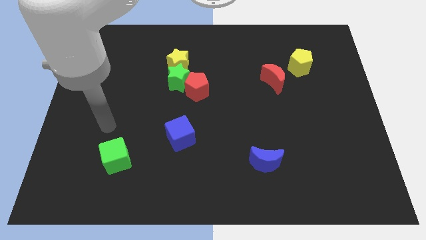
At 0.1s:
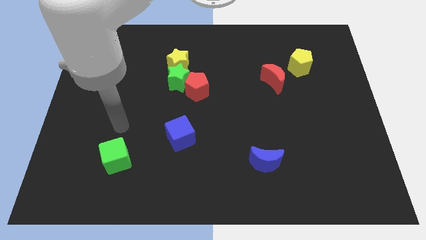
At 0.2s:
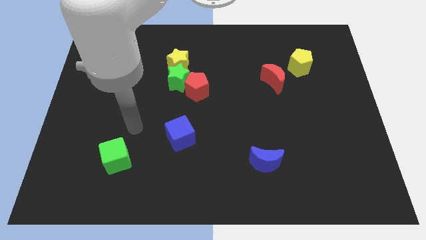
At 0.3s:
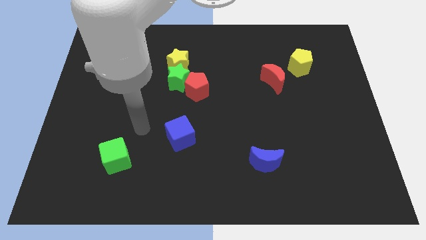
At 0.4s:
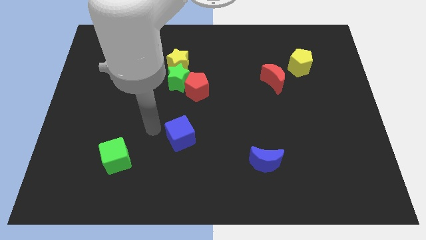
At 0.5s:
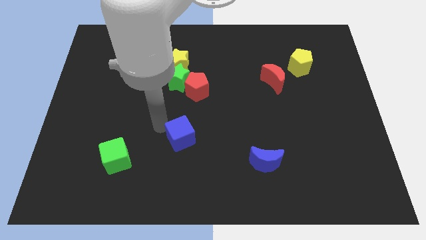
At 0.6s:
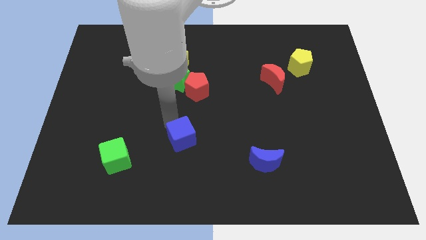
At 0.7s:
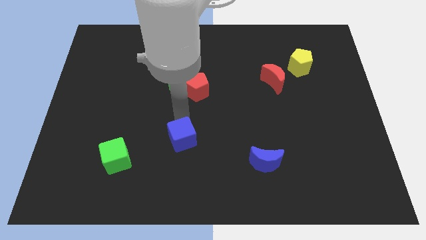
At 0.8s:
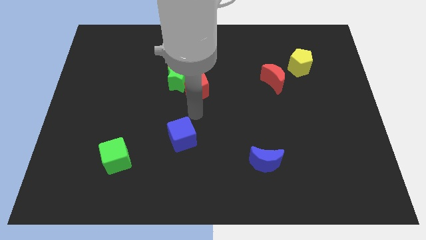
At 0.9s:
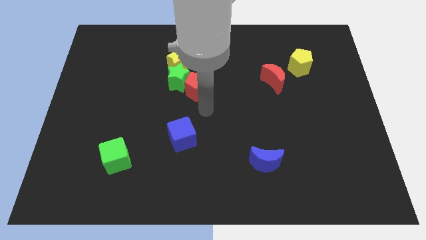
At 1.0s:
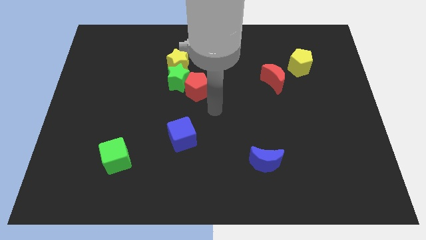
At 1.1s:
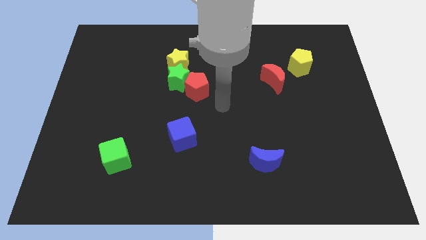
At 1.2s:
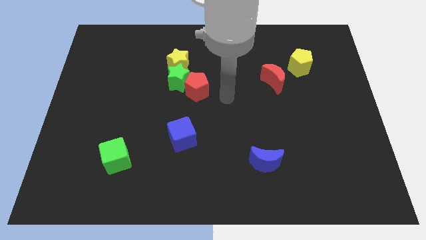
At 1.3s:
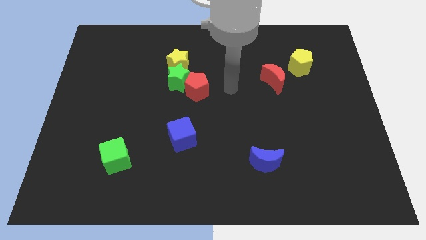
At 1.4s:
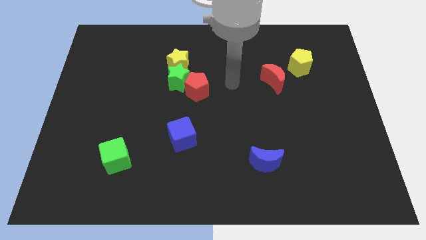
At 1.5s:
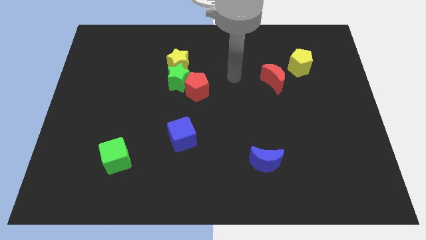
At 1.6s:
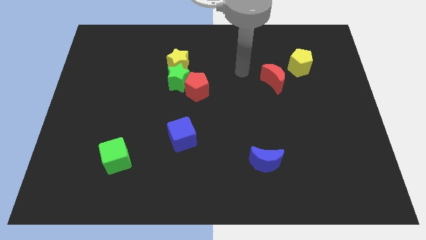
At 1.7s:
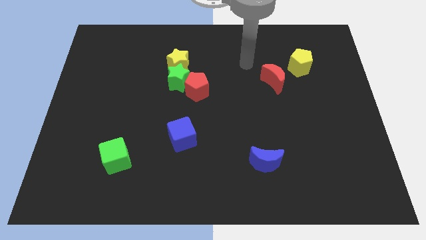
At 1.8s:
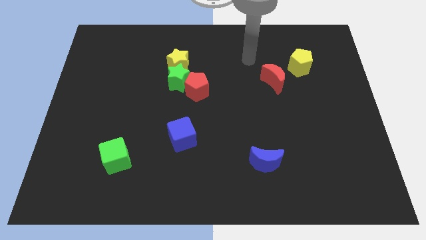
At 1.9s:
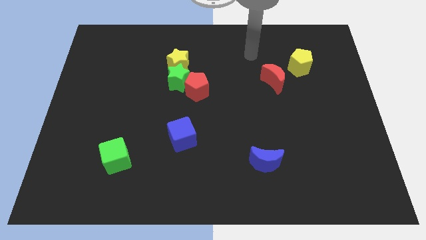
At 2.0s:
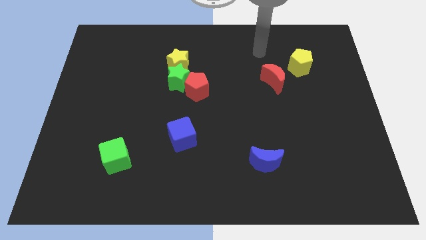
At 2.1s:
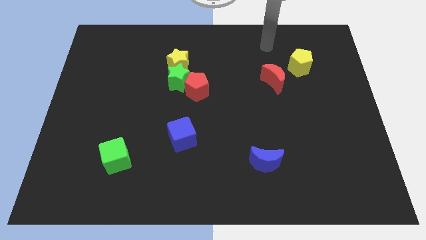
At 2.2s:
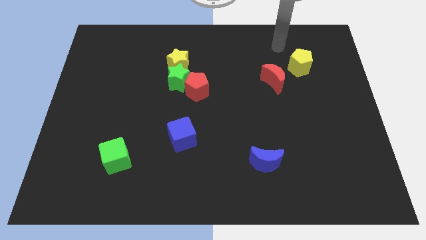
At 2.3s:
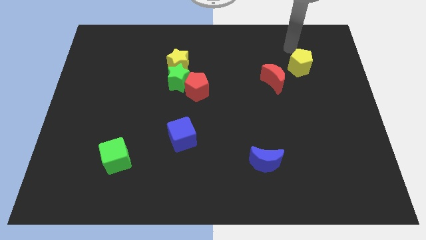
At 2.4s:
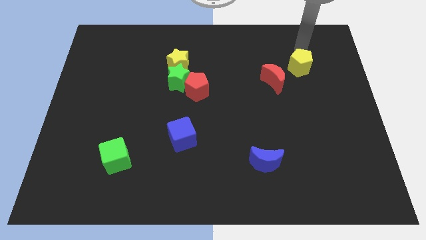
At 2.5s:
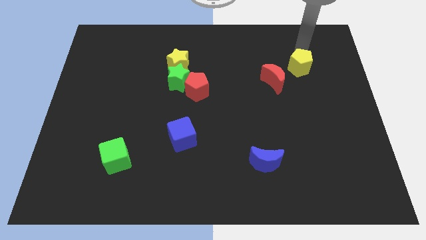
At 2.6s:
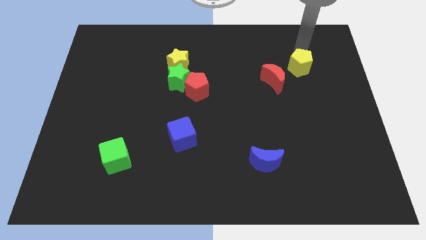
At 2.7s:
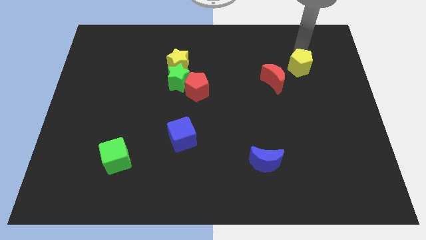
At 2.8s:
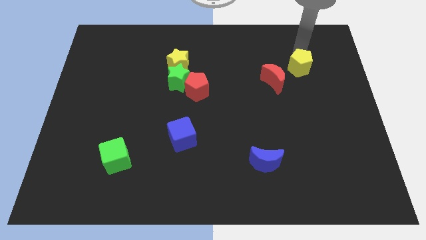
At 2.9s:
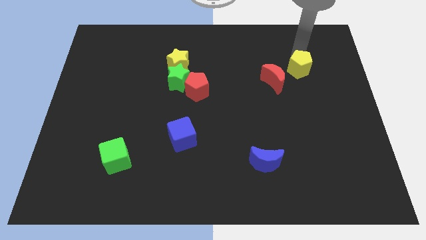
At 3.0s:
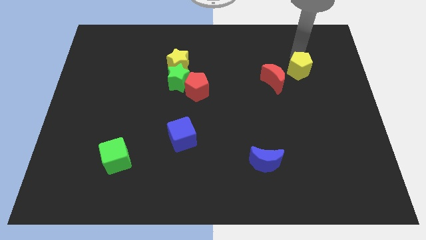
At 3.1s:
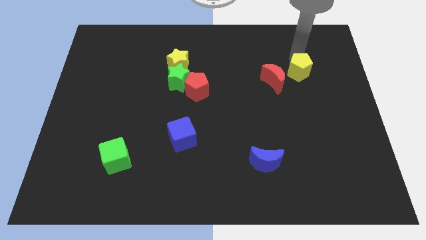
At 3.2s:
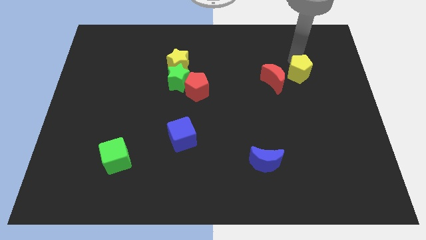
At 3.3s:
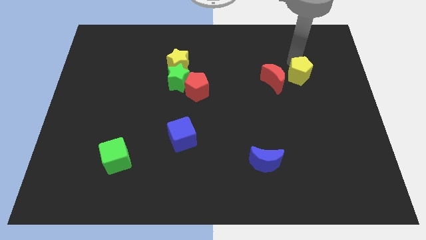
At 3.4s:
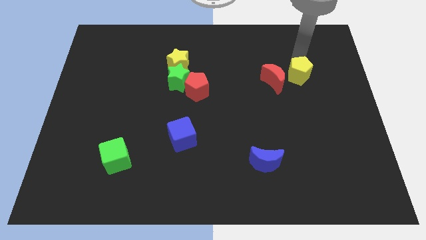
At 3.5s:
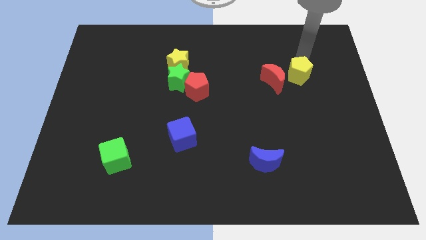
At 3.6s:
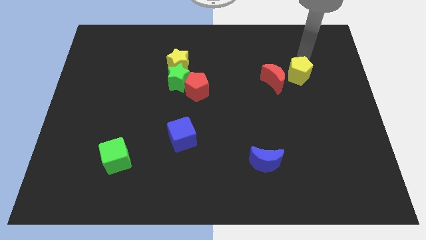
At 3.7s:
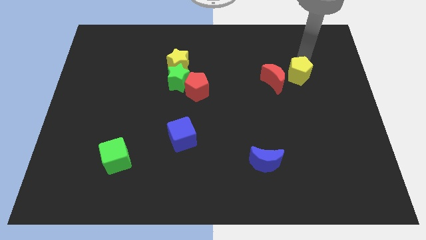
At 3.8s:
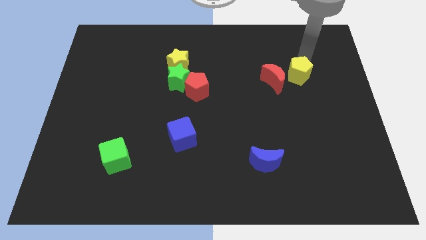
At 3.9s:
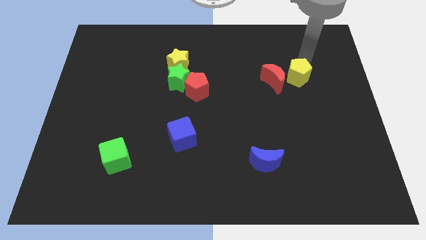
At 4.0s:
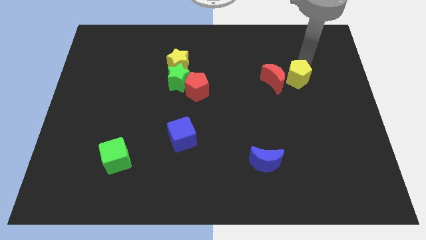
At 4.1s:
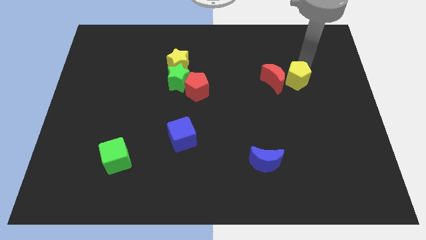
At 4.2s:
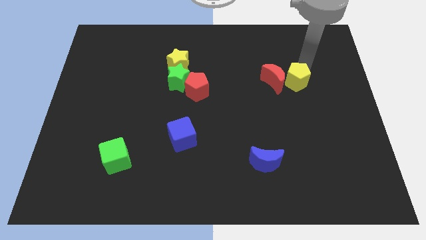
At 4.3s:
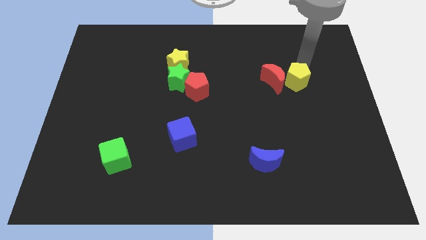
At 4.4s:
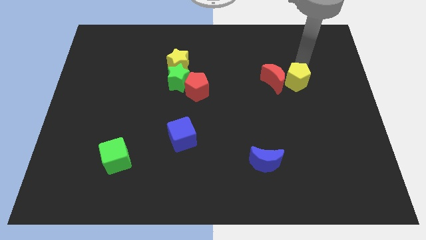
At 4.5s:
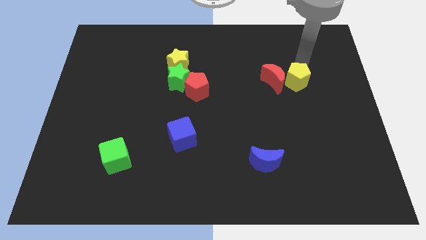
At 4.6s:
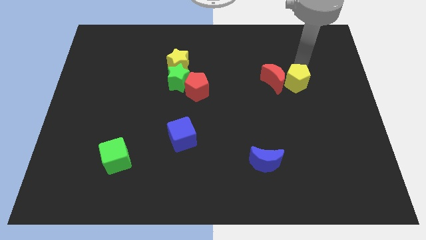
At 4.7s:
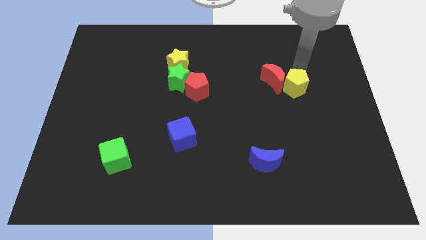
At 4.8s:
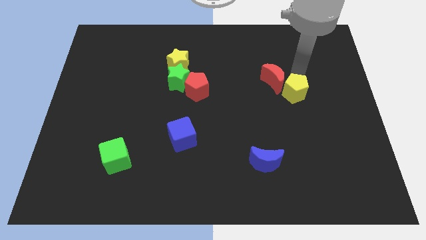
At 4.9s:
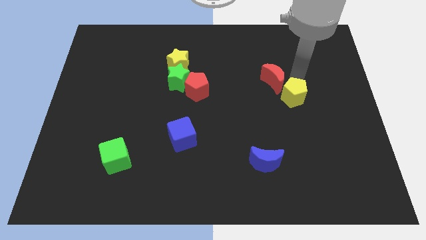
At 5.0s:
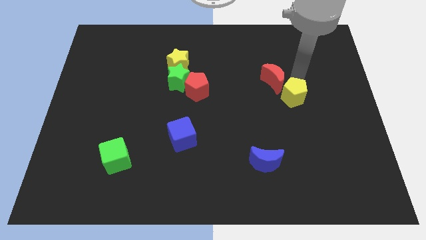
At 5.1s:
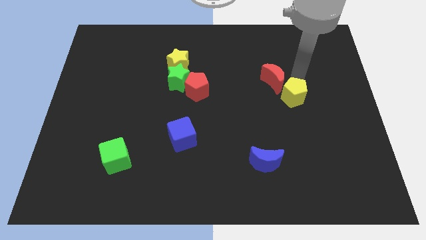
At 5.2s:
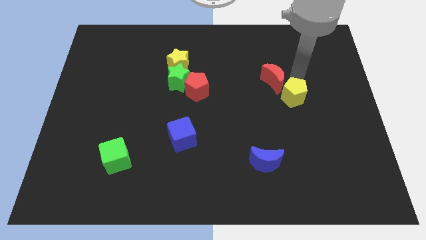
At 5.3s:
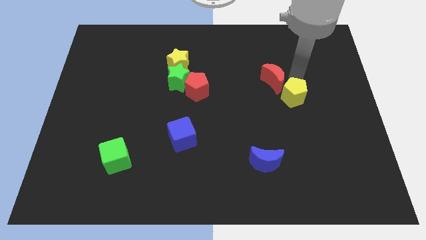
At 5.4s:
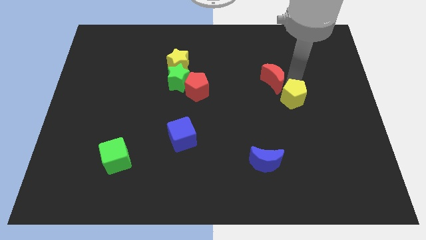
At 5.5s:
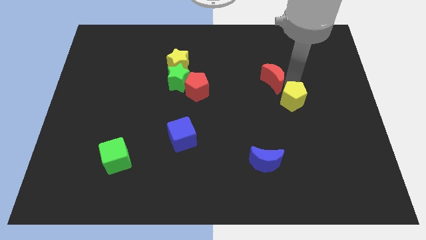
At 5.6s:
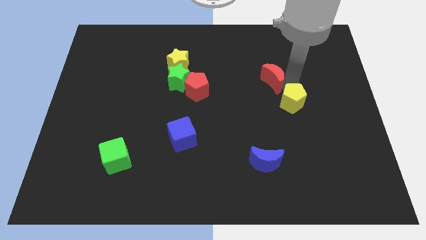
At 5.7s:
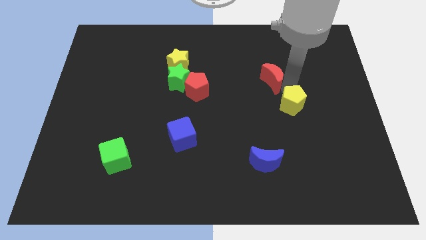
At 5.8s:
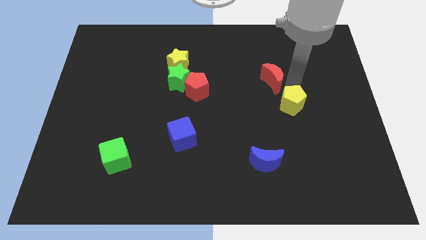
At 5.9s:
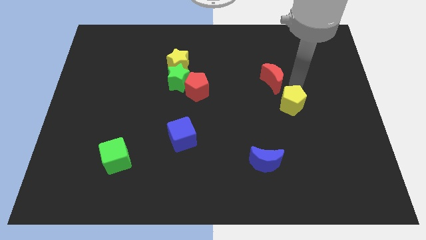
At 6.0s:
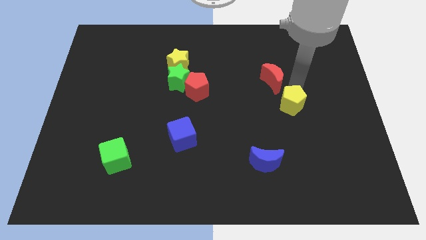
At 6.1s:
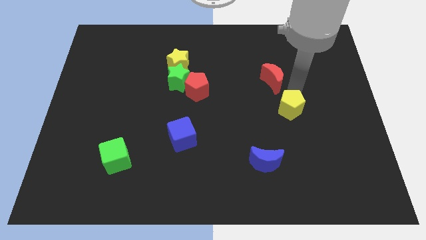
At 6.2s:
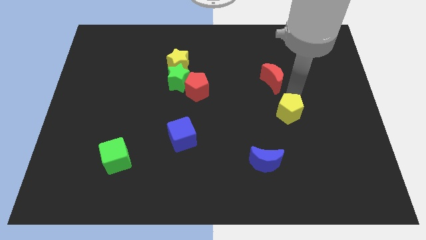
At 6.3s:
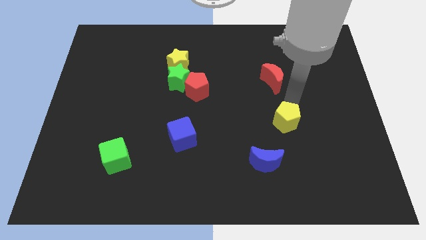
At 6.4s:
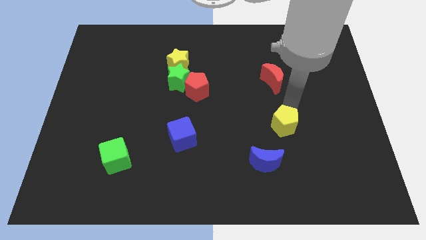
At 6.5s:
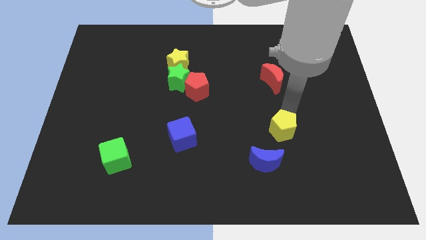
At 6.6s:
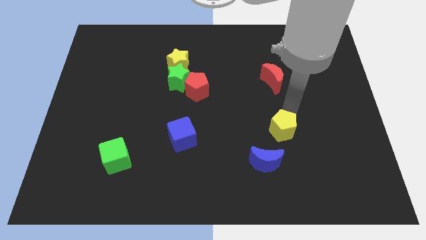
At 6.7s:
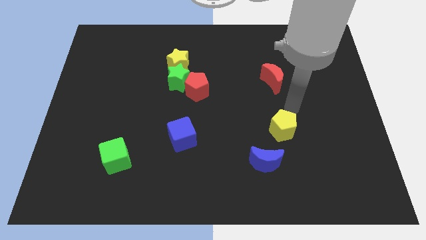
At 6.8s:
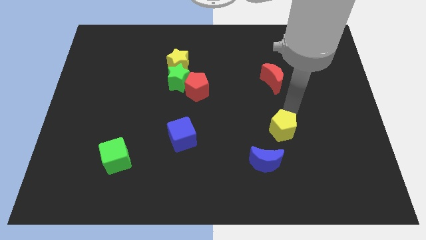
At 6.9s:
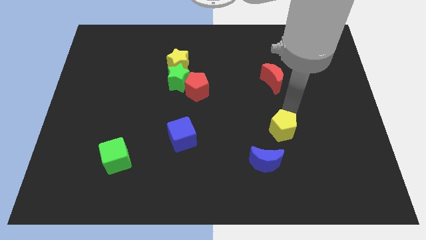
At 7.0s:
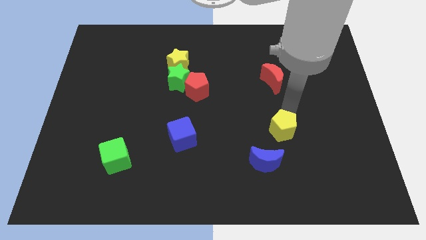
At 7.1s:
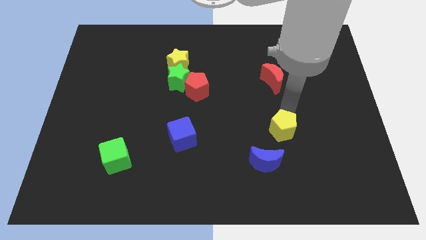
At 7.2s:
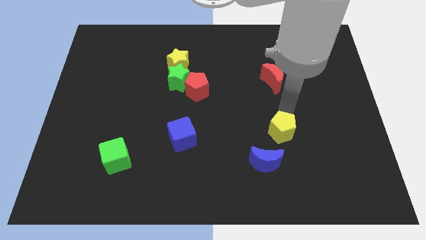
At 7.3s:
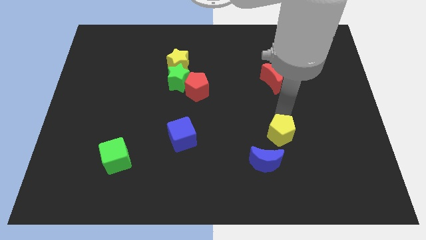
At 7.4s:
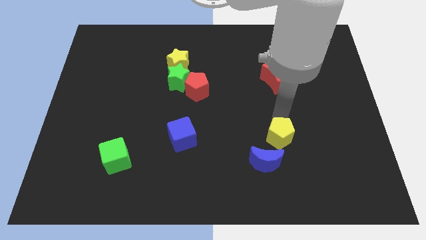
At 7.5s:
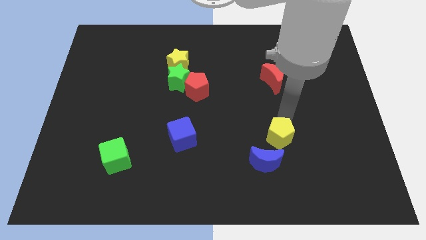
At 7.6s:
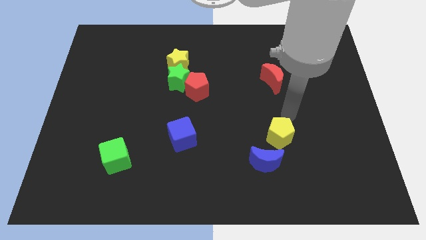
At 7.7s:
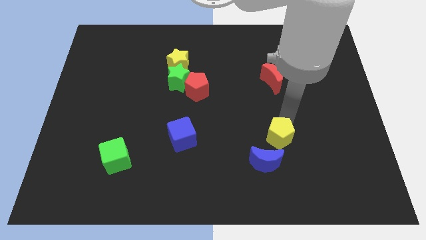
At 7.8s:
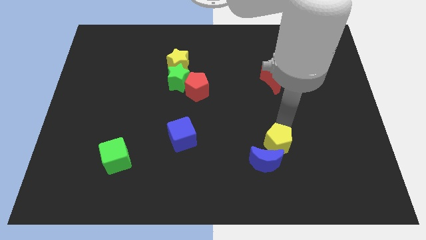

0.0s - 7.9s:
move the yellow pentagon towards the blue moon
